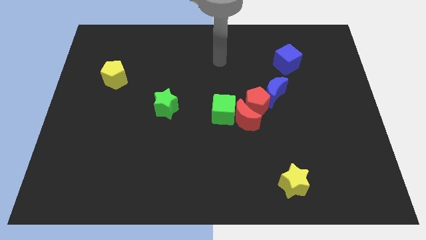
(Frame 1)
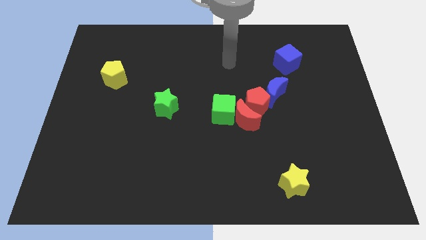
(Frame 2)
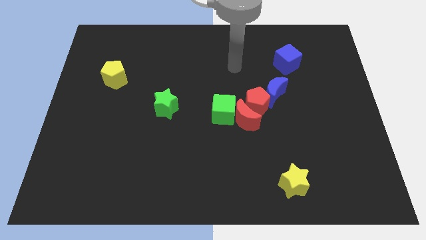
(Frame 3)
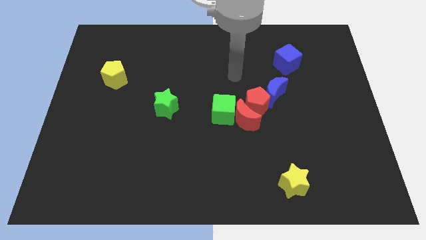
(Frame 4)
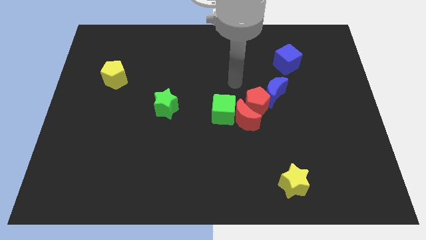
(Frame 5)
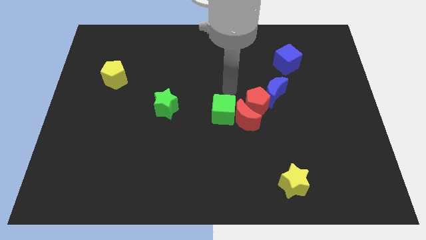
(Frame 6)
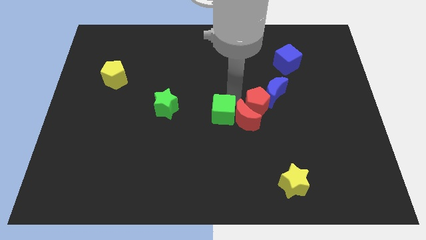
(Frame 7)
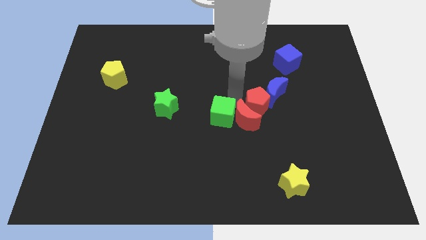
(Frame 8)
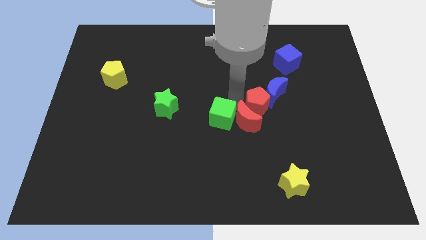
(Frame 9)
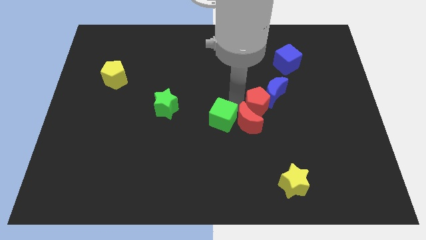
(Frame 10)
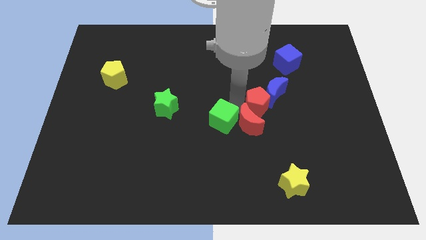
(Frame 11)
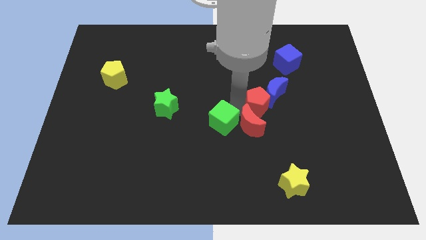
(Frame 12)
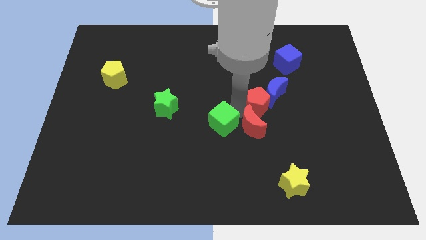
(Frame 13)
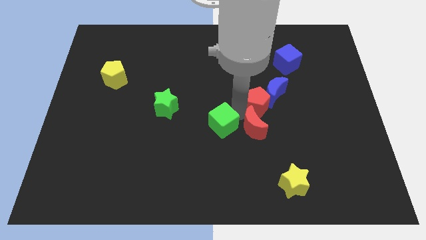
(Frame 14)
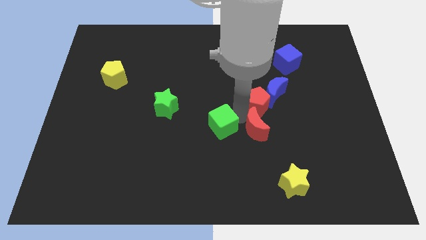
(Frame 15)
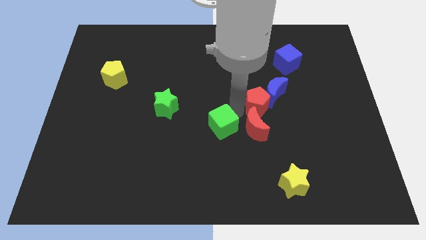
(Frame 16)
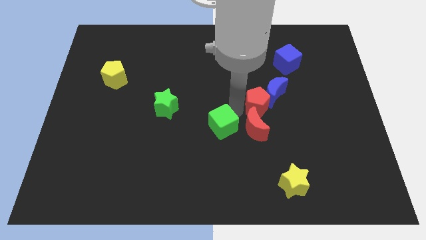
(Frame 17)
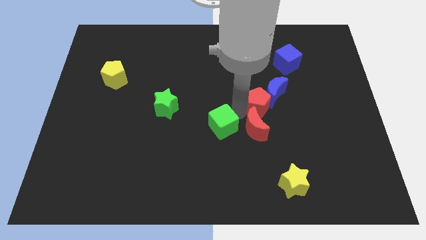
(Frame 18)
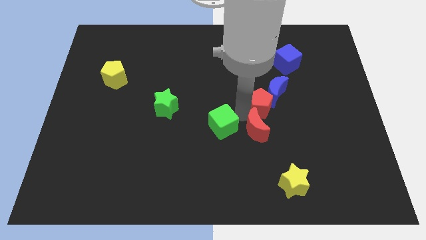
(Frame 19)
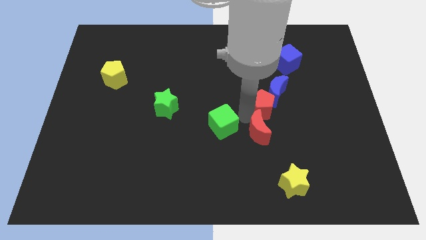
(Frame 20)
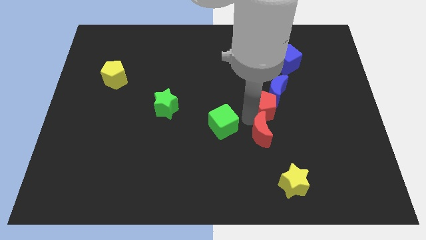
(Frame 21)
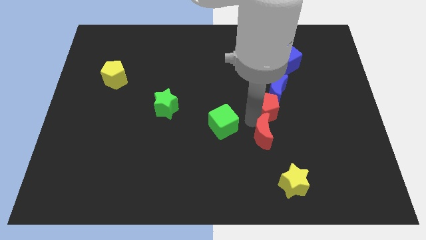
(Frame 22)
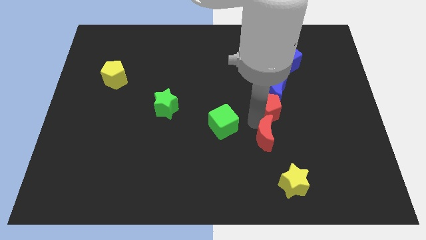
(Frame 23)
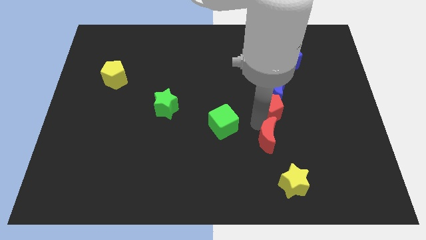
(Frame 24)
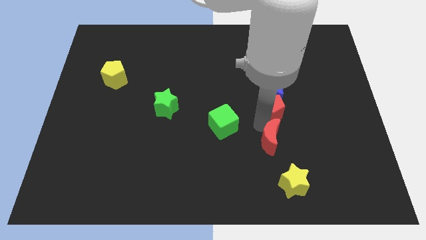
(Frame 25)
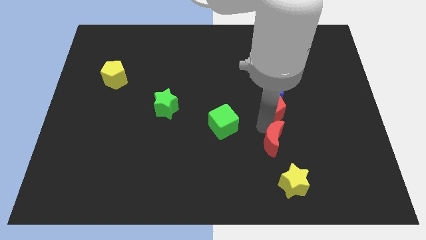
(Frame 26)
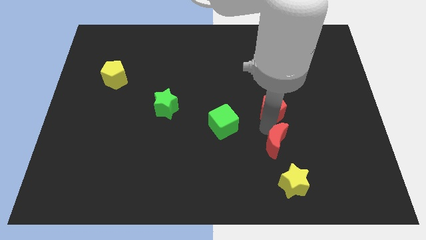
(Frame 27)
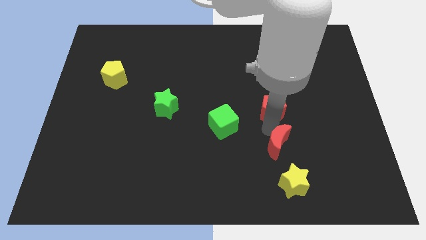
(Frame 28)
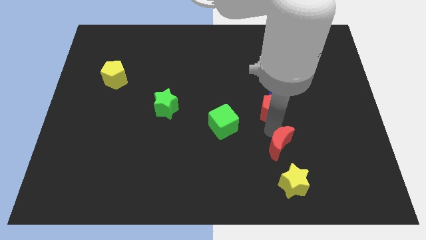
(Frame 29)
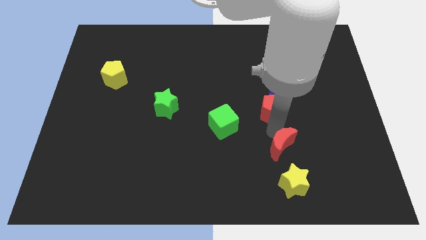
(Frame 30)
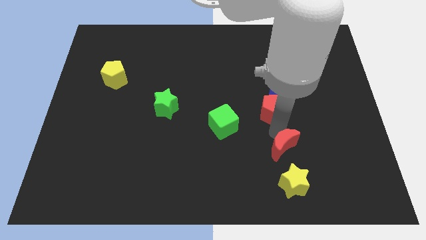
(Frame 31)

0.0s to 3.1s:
separate the red moon from the red pentagon and green cube

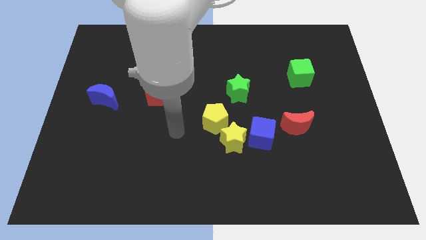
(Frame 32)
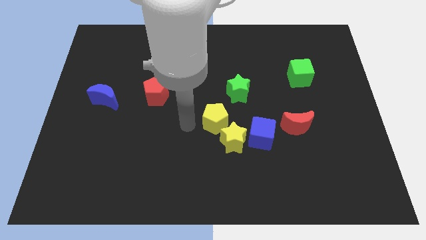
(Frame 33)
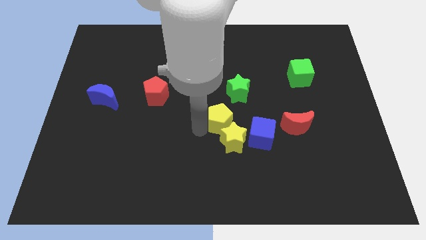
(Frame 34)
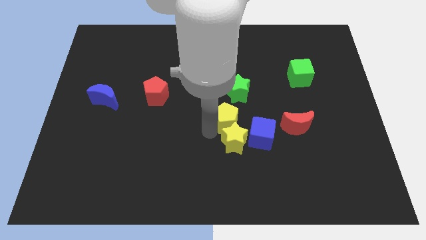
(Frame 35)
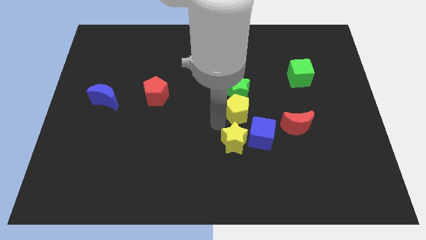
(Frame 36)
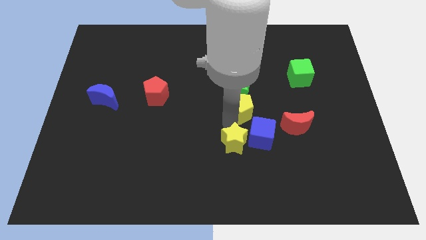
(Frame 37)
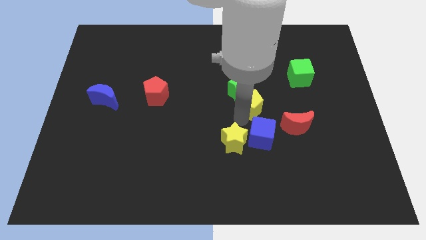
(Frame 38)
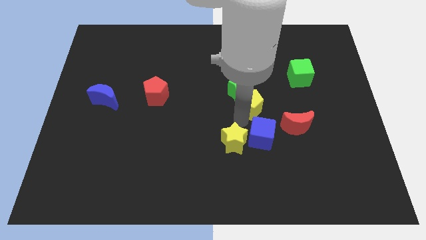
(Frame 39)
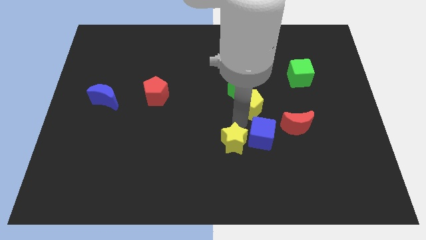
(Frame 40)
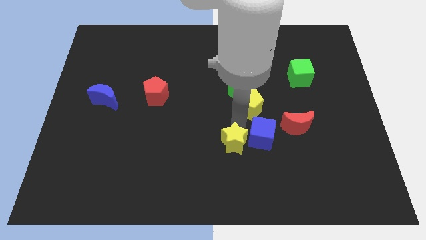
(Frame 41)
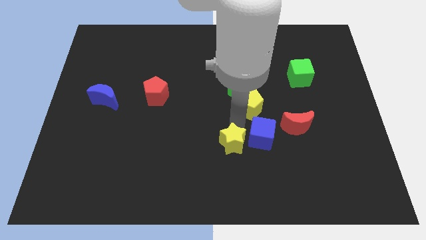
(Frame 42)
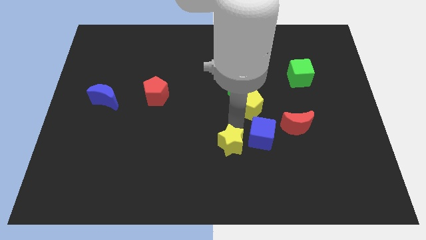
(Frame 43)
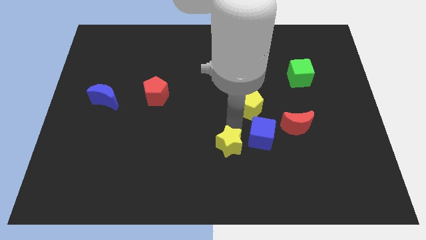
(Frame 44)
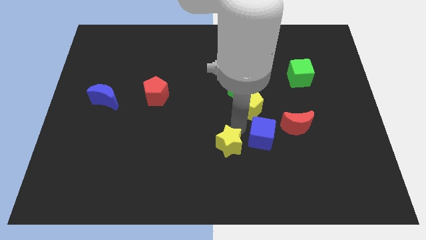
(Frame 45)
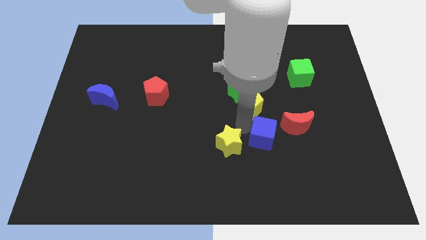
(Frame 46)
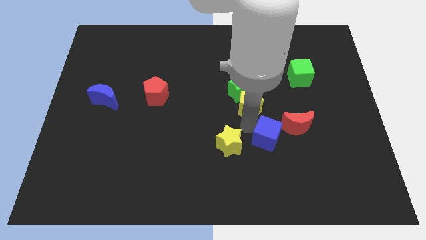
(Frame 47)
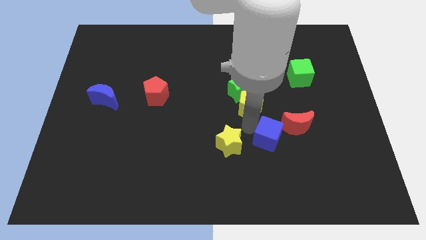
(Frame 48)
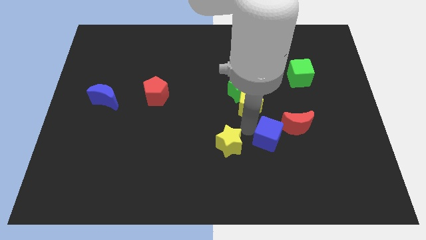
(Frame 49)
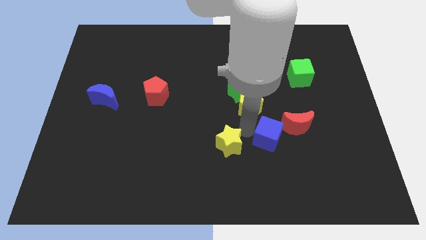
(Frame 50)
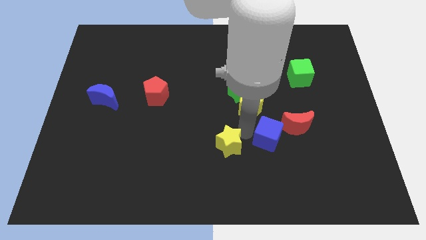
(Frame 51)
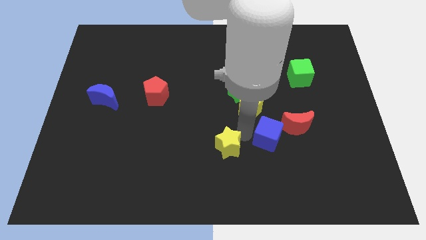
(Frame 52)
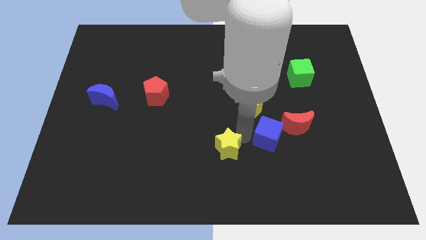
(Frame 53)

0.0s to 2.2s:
move the yellow star away from the blue cube and yellow pentagon

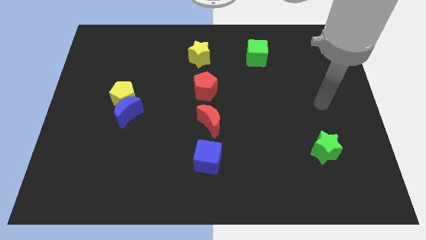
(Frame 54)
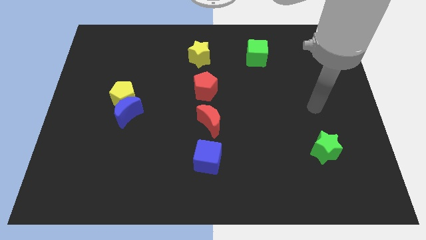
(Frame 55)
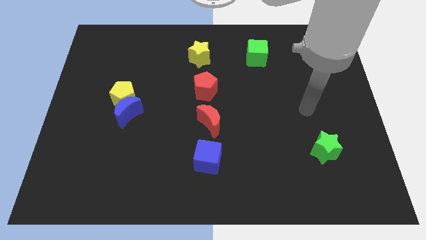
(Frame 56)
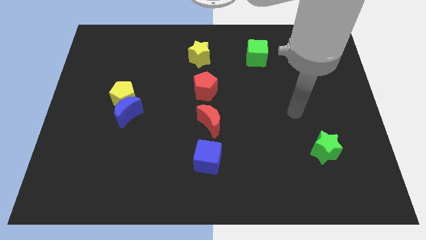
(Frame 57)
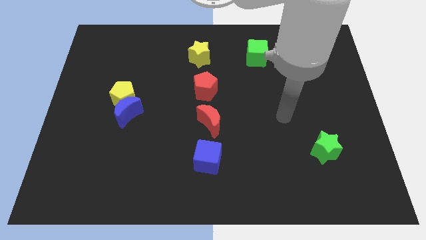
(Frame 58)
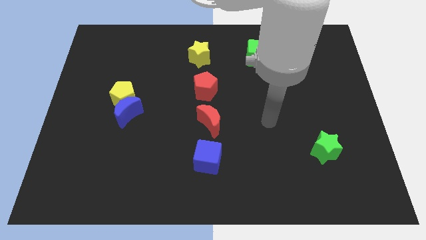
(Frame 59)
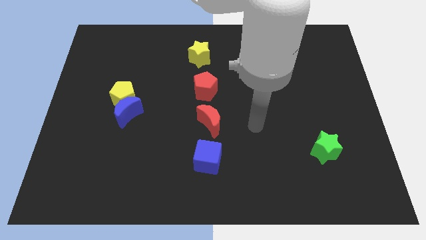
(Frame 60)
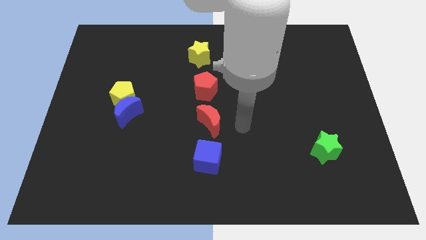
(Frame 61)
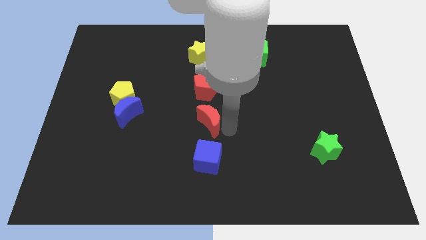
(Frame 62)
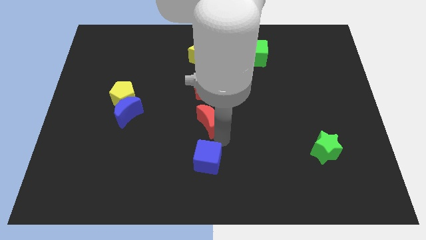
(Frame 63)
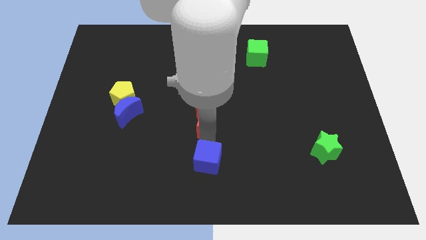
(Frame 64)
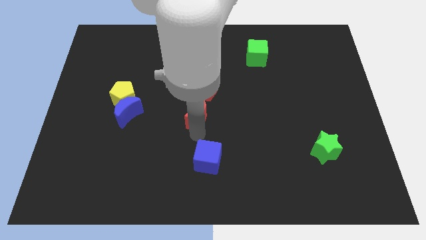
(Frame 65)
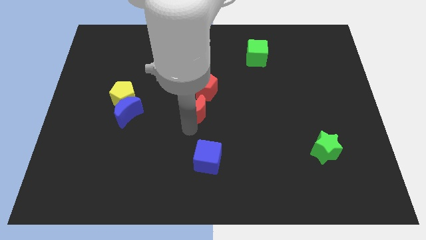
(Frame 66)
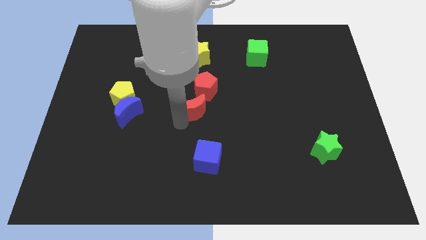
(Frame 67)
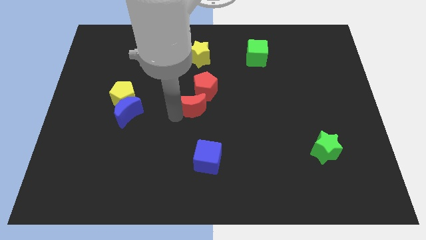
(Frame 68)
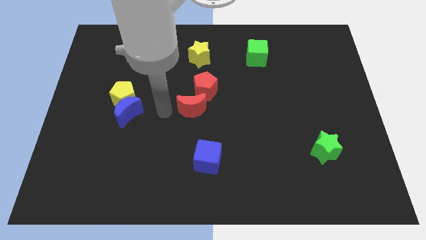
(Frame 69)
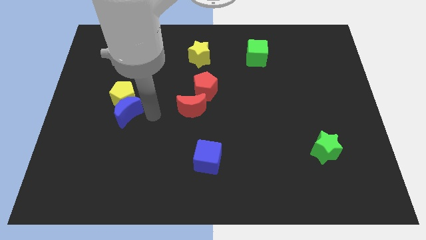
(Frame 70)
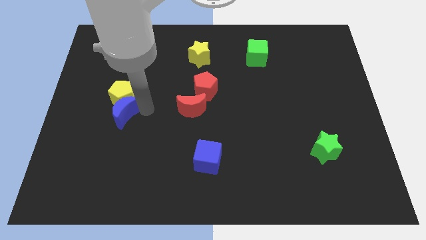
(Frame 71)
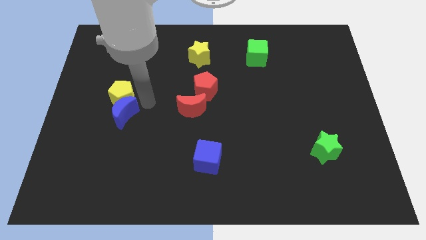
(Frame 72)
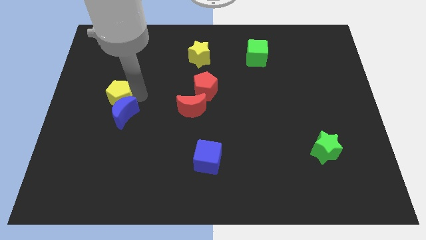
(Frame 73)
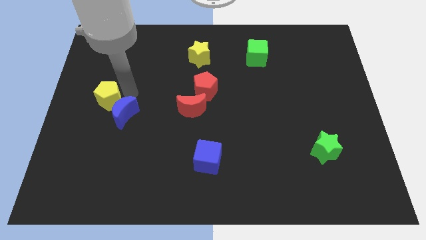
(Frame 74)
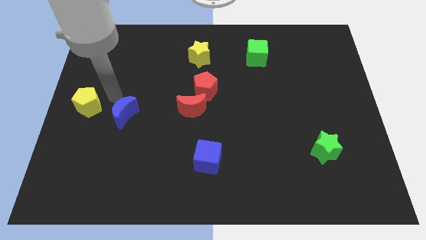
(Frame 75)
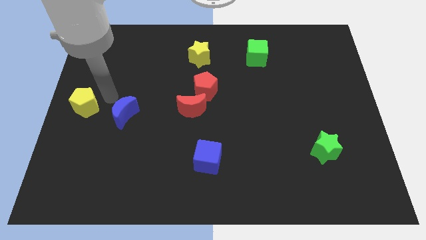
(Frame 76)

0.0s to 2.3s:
move the blue moon away from the yellow pentagon

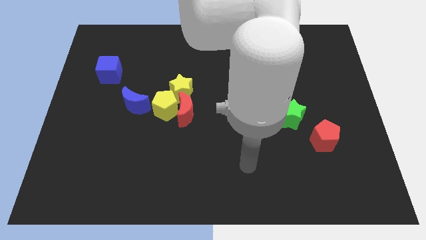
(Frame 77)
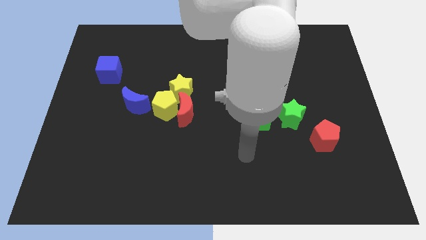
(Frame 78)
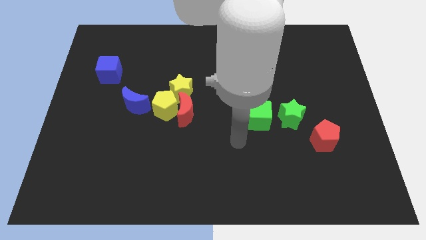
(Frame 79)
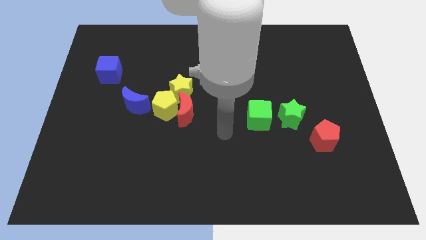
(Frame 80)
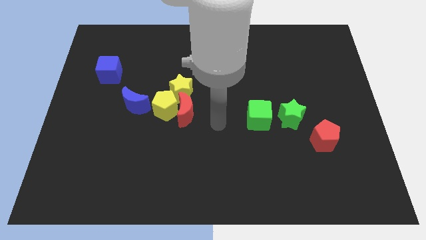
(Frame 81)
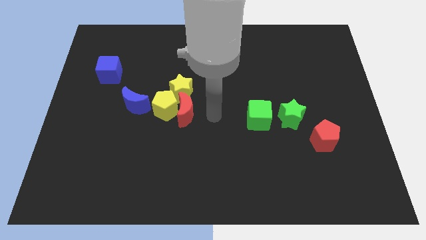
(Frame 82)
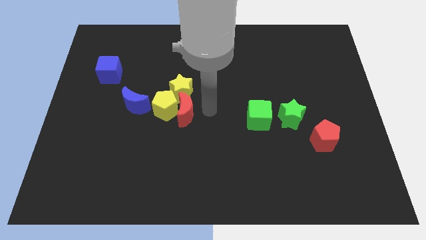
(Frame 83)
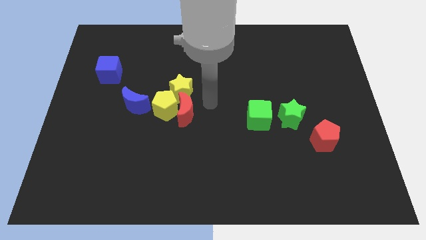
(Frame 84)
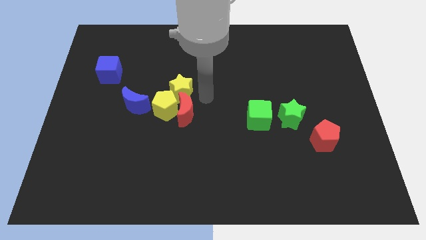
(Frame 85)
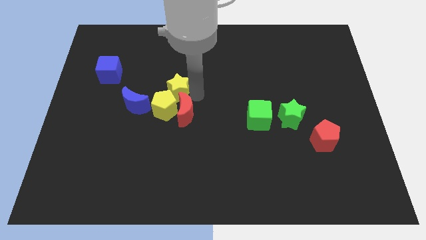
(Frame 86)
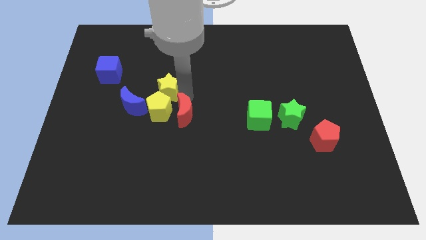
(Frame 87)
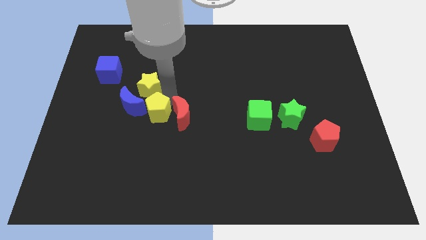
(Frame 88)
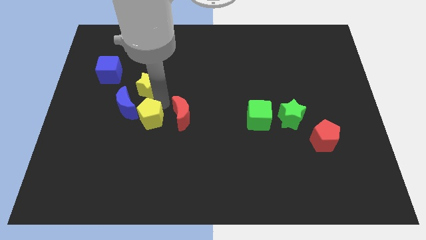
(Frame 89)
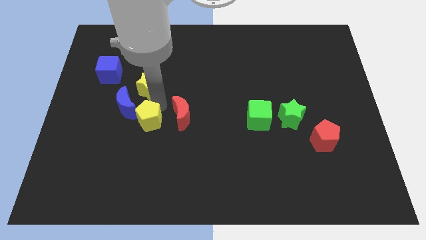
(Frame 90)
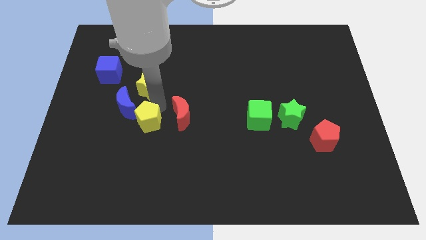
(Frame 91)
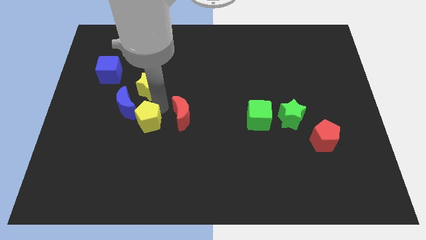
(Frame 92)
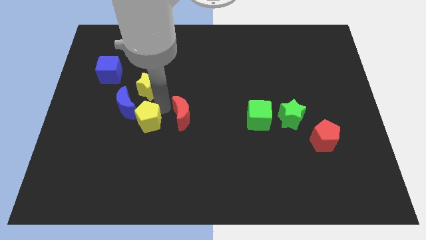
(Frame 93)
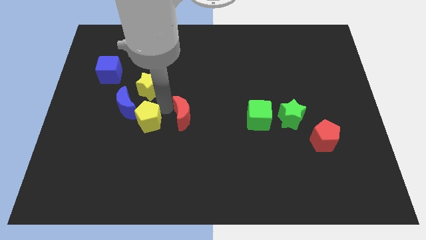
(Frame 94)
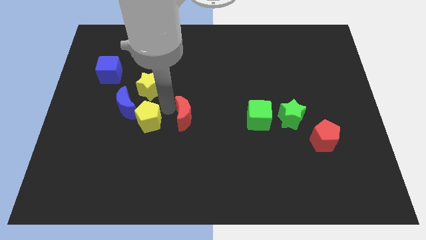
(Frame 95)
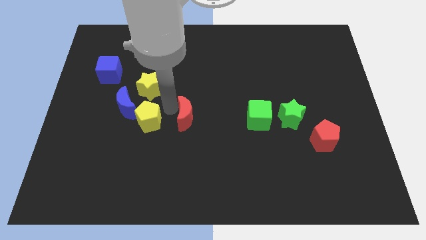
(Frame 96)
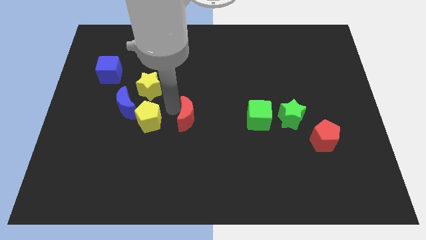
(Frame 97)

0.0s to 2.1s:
separate the red moon from the yellow pentagon and yellow star
